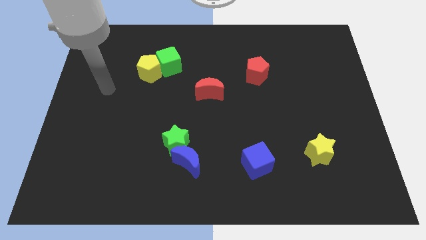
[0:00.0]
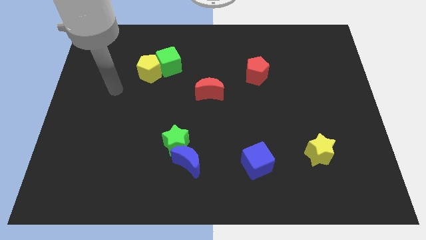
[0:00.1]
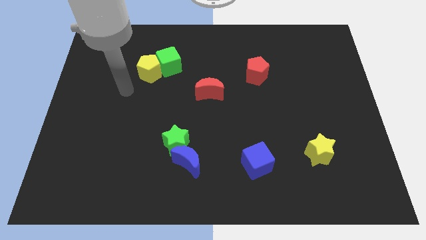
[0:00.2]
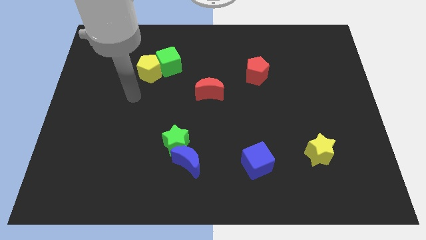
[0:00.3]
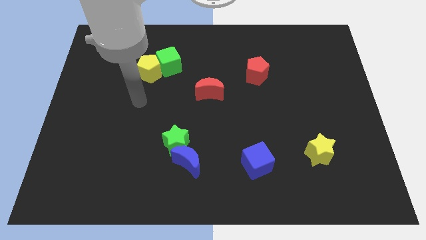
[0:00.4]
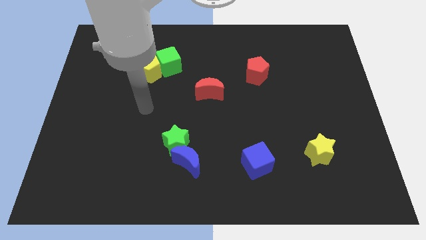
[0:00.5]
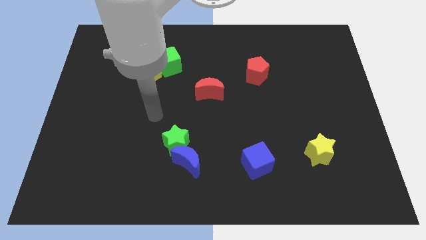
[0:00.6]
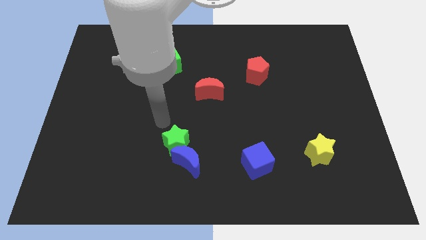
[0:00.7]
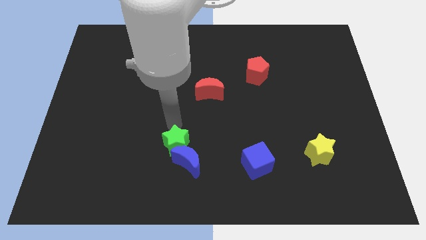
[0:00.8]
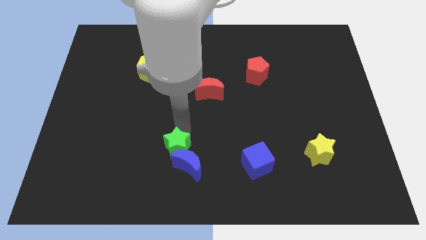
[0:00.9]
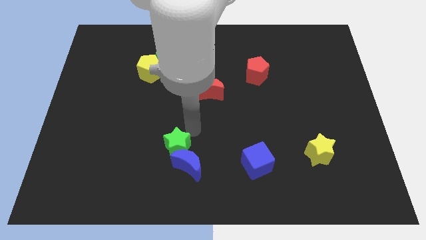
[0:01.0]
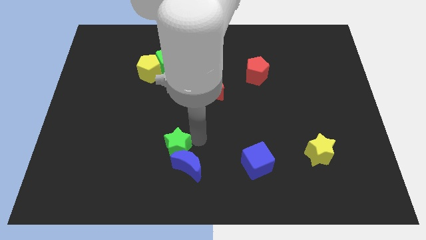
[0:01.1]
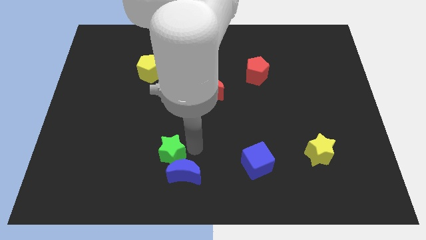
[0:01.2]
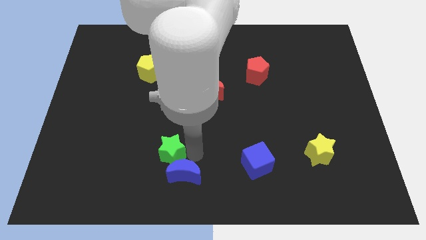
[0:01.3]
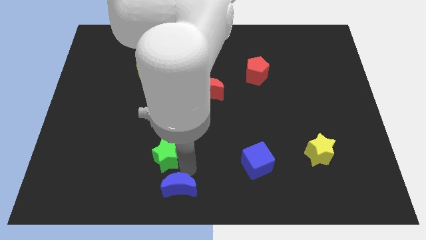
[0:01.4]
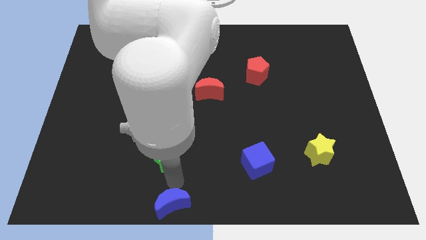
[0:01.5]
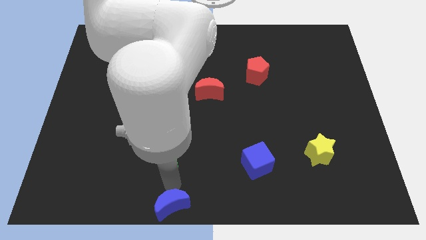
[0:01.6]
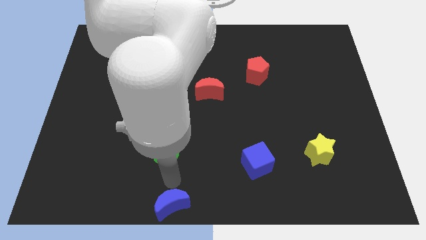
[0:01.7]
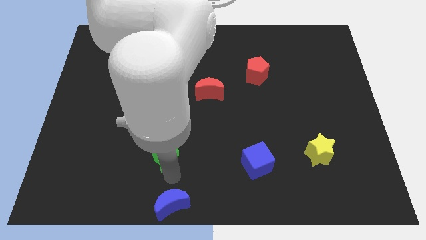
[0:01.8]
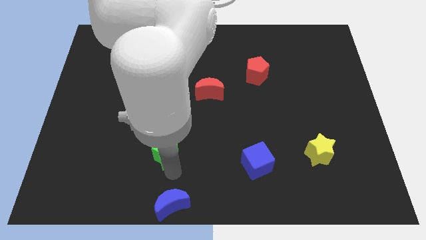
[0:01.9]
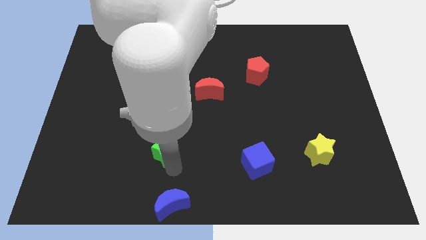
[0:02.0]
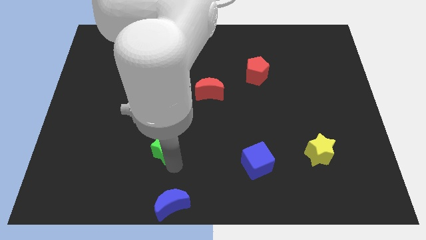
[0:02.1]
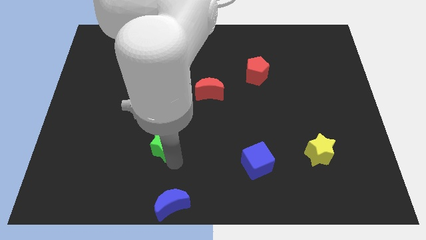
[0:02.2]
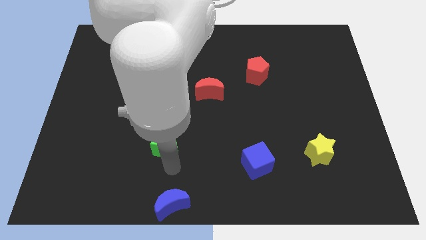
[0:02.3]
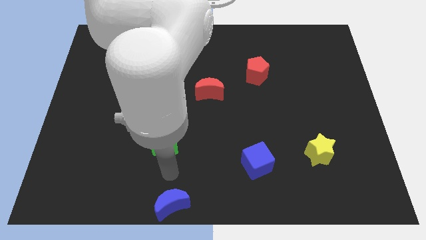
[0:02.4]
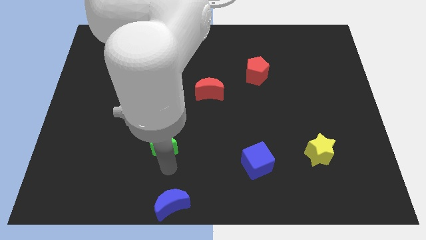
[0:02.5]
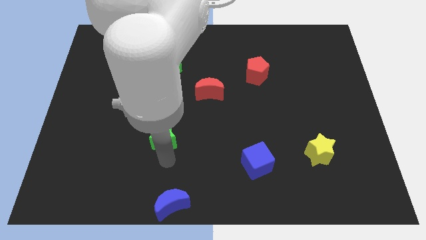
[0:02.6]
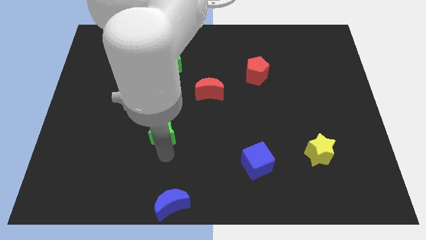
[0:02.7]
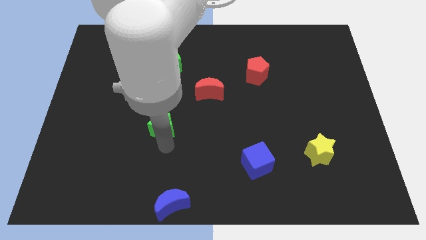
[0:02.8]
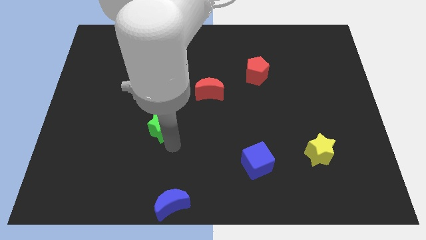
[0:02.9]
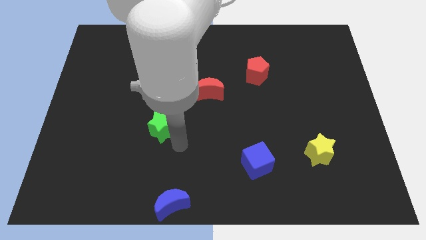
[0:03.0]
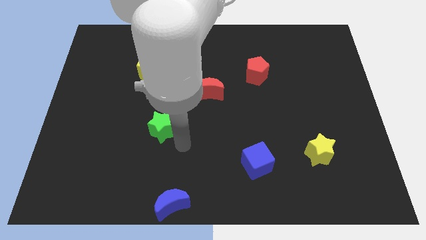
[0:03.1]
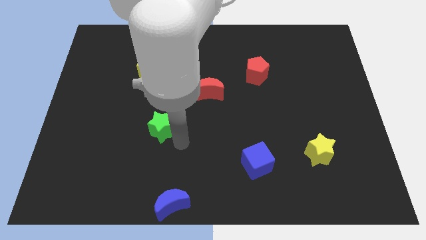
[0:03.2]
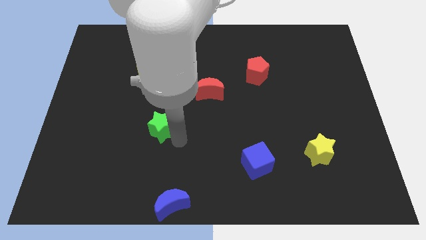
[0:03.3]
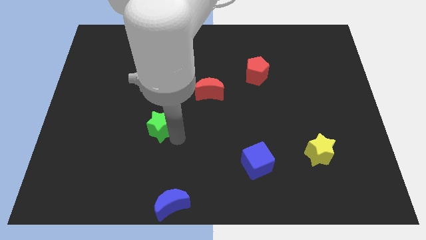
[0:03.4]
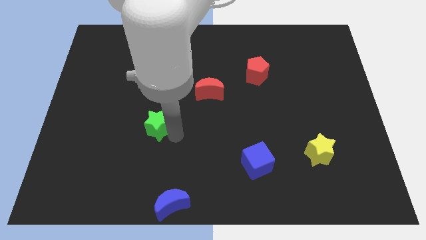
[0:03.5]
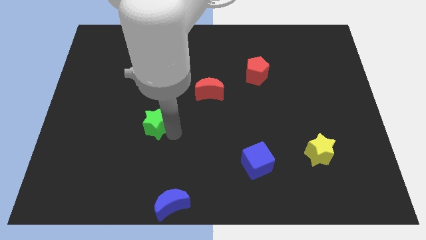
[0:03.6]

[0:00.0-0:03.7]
slightly move the green star up and to the left diagonally

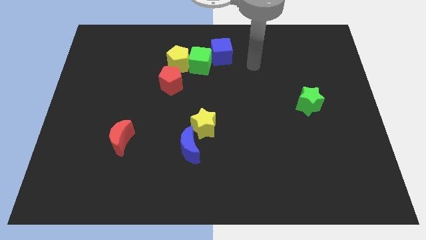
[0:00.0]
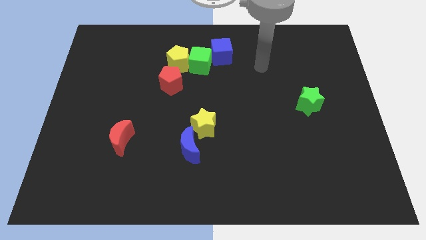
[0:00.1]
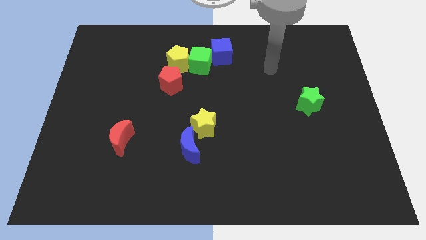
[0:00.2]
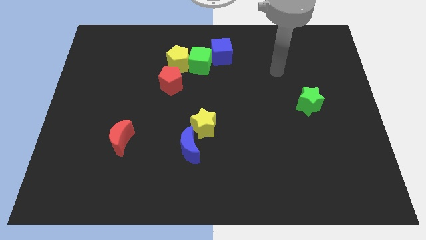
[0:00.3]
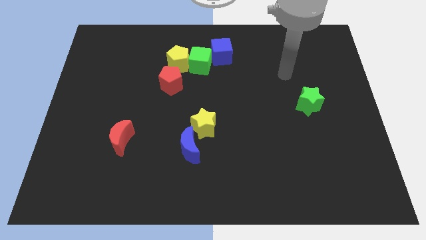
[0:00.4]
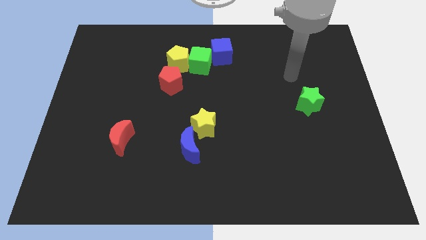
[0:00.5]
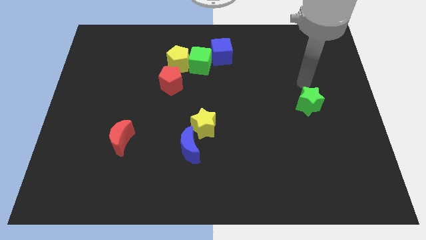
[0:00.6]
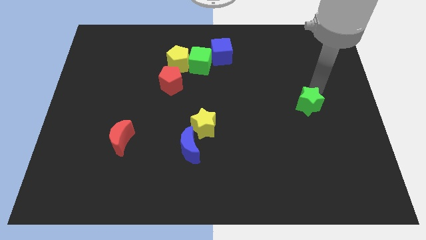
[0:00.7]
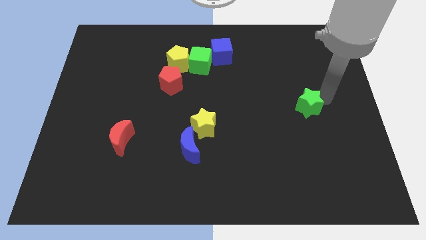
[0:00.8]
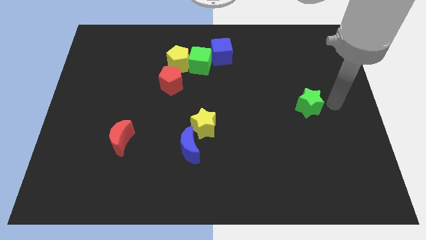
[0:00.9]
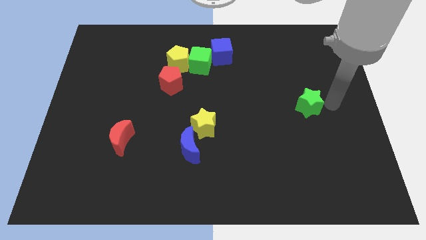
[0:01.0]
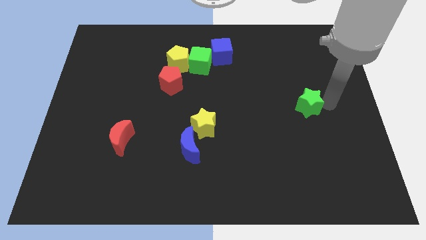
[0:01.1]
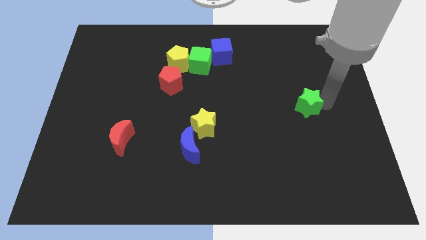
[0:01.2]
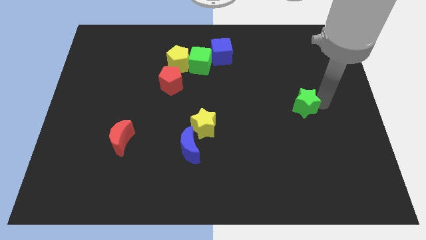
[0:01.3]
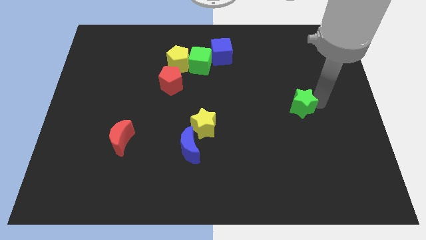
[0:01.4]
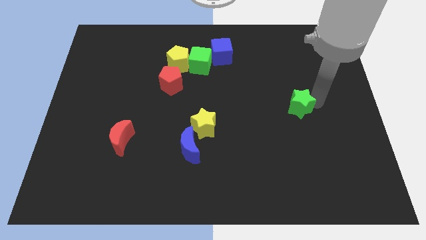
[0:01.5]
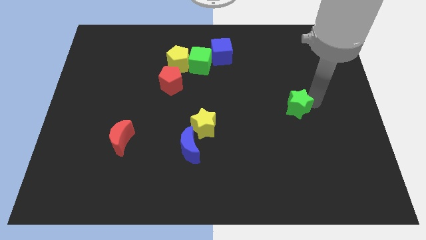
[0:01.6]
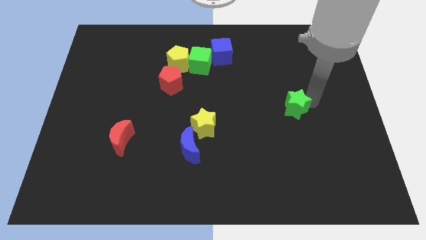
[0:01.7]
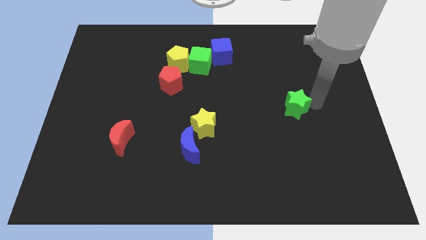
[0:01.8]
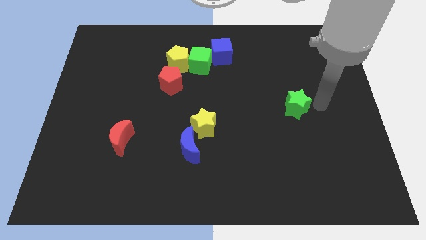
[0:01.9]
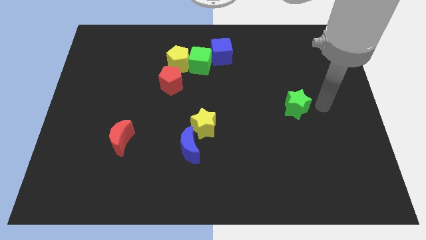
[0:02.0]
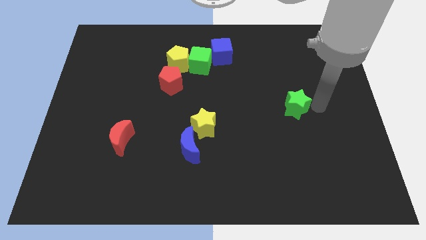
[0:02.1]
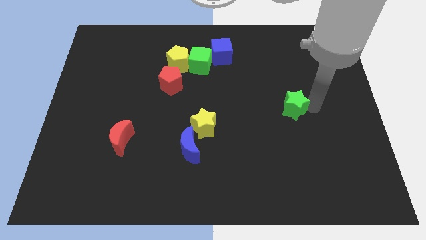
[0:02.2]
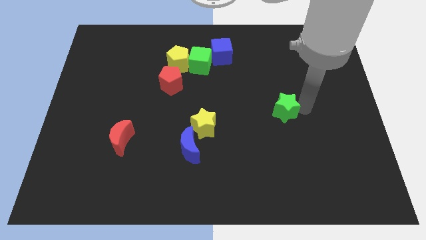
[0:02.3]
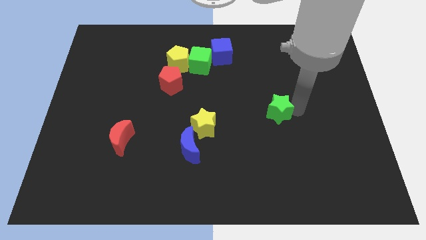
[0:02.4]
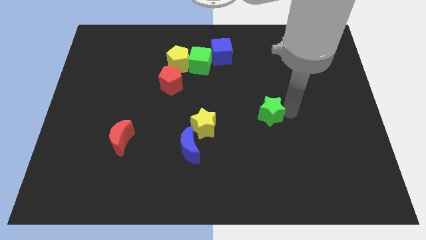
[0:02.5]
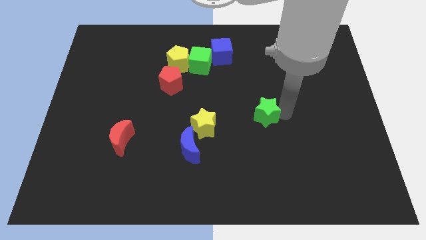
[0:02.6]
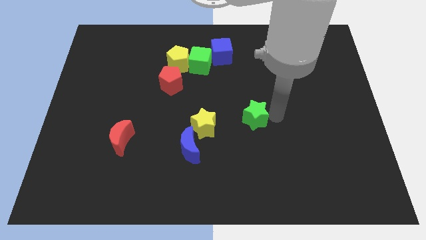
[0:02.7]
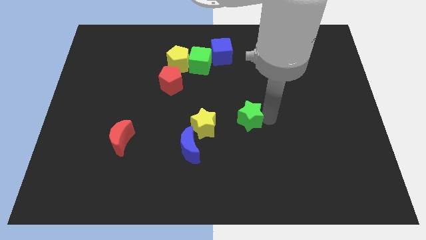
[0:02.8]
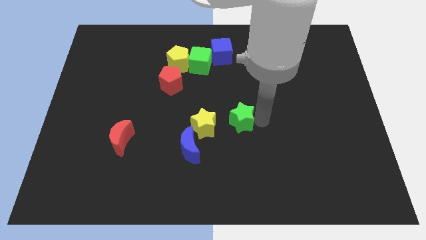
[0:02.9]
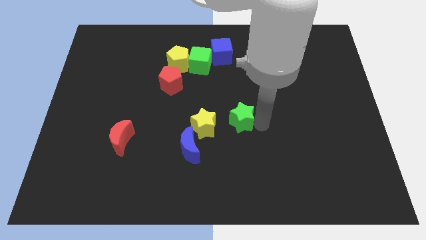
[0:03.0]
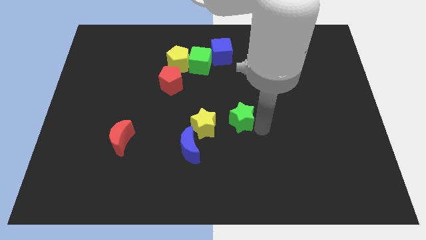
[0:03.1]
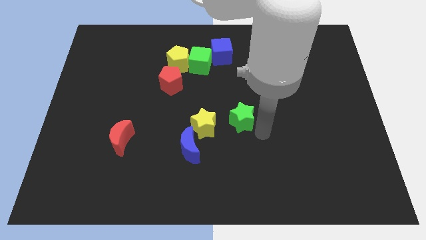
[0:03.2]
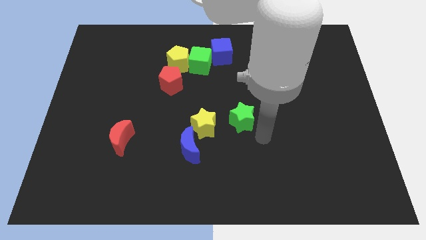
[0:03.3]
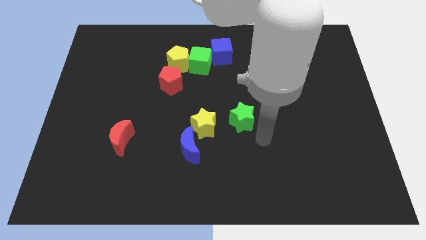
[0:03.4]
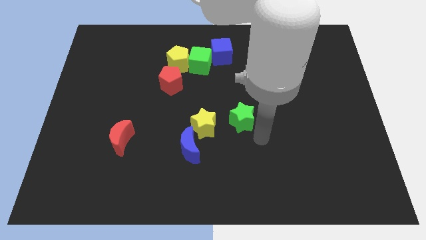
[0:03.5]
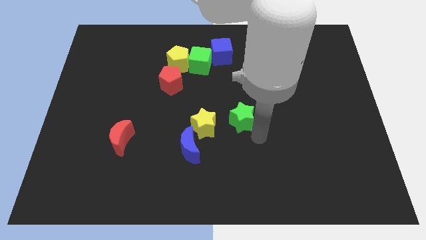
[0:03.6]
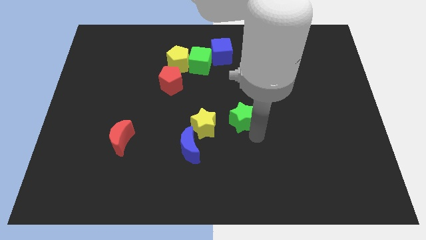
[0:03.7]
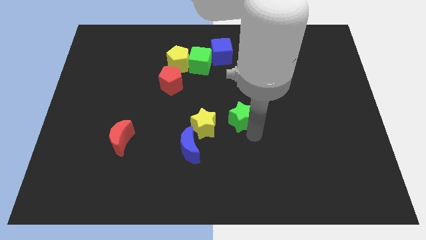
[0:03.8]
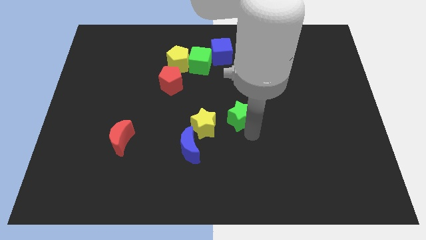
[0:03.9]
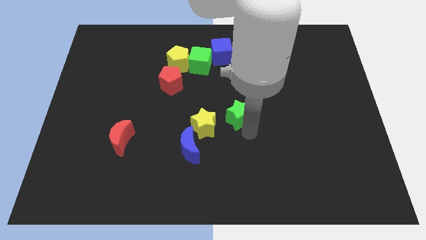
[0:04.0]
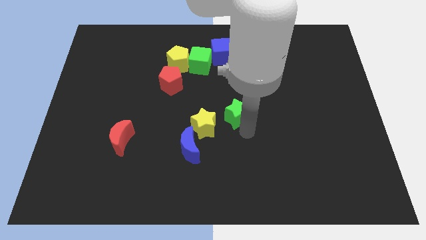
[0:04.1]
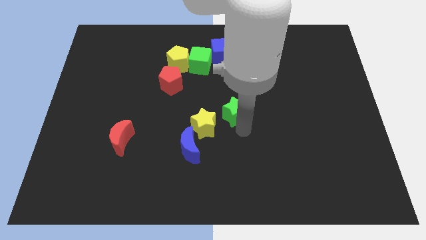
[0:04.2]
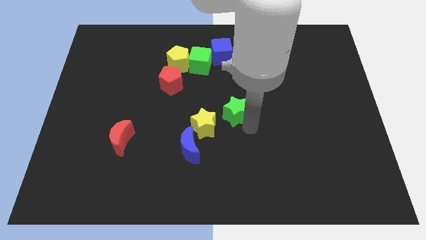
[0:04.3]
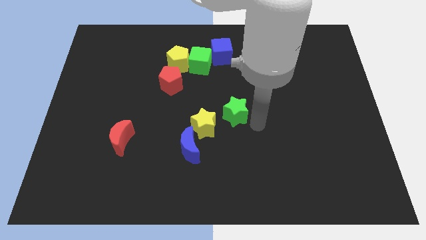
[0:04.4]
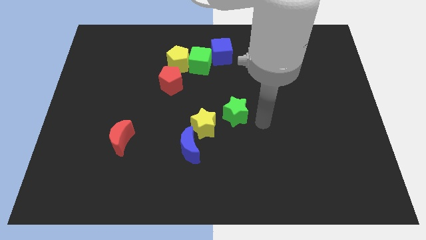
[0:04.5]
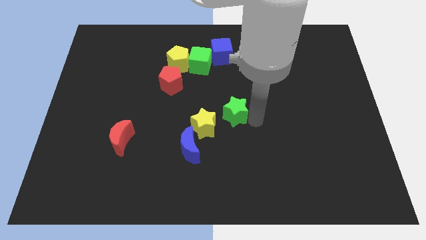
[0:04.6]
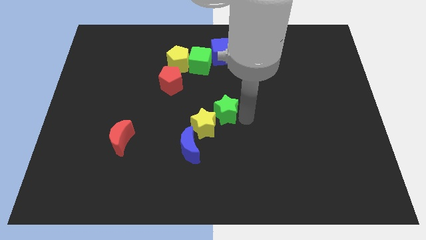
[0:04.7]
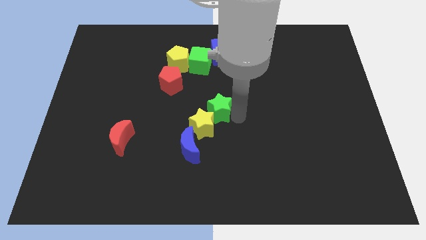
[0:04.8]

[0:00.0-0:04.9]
push the green star left
